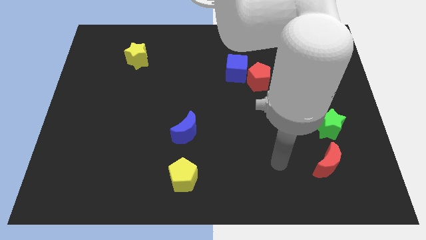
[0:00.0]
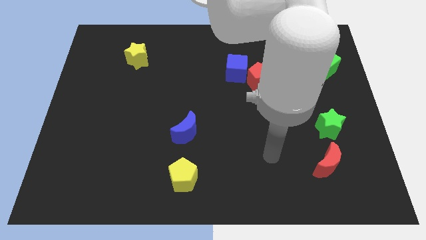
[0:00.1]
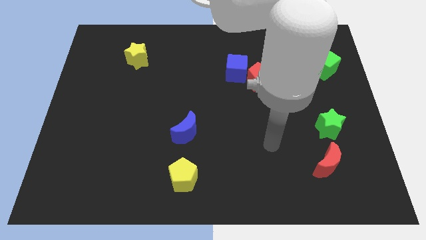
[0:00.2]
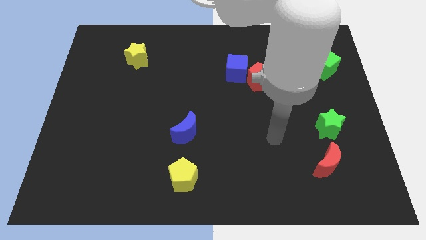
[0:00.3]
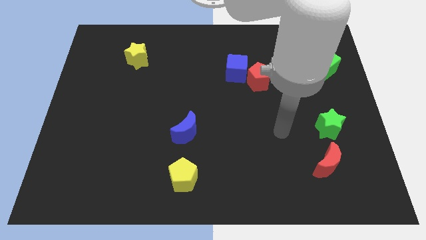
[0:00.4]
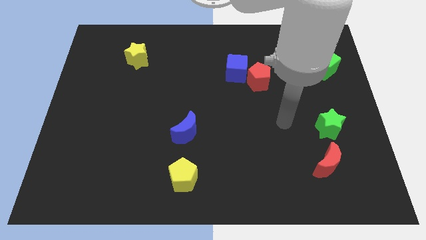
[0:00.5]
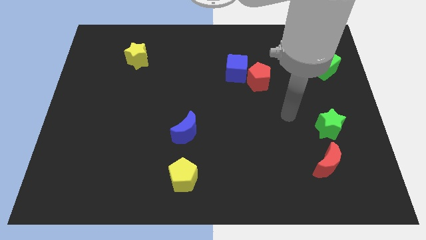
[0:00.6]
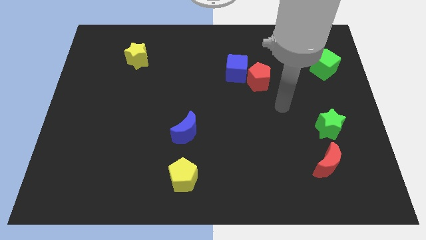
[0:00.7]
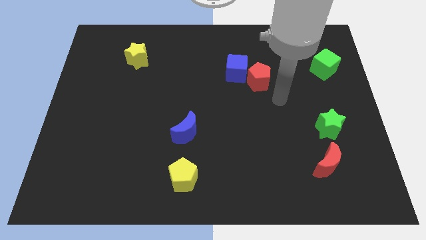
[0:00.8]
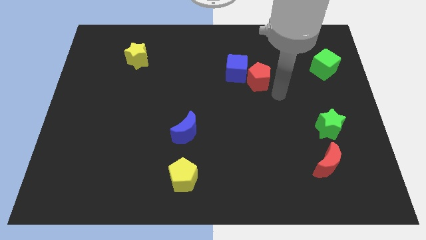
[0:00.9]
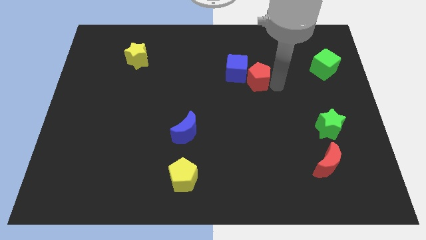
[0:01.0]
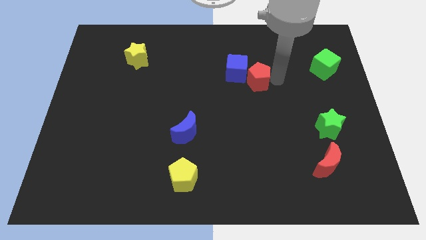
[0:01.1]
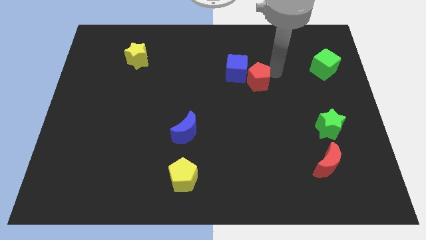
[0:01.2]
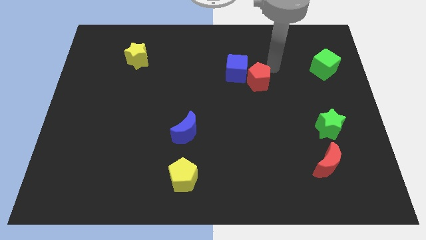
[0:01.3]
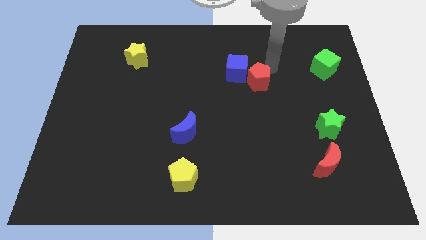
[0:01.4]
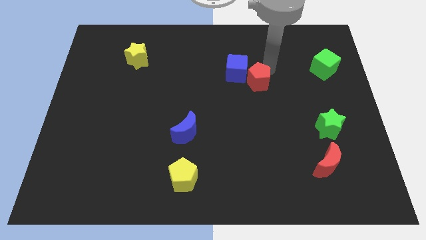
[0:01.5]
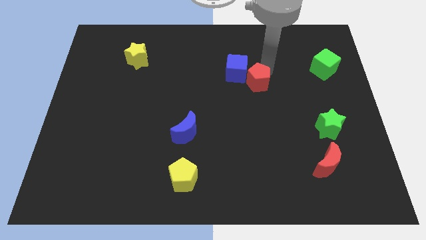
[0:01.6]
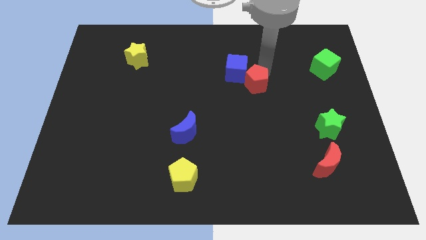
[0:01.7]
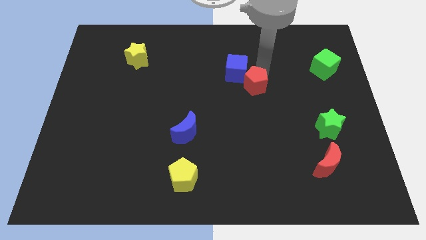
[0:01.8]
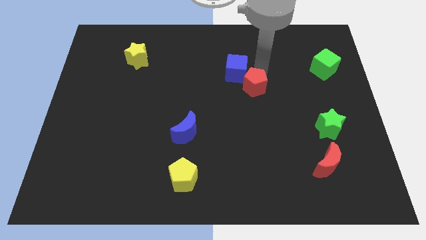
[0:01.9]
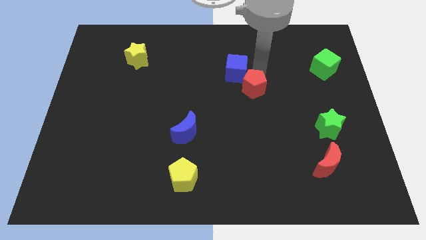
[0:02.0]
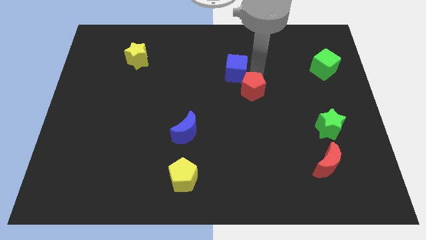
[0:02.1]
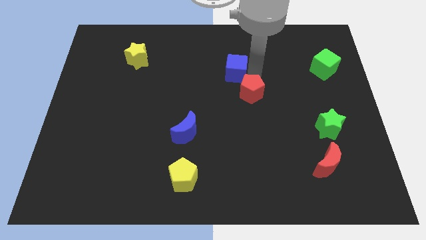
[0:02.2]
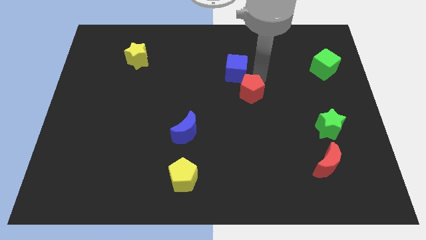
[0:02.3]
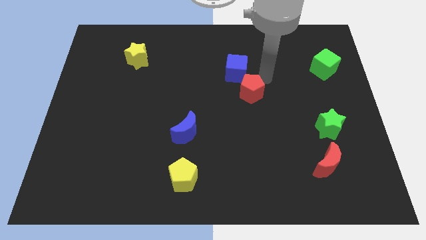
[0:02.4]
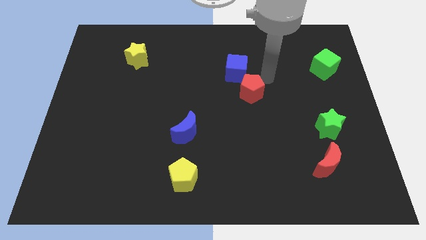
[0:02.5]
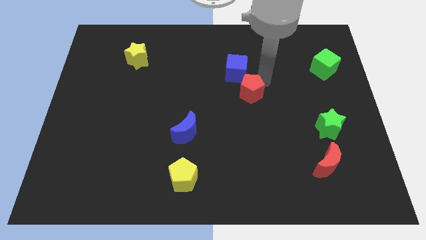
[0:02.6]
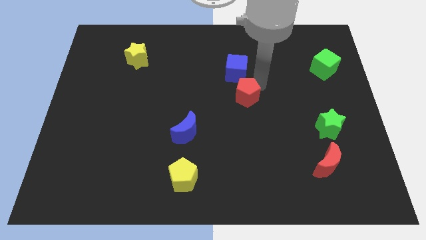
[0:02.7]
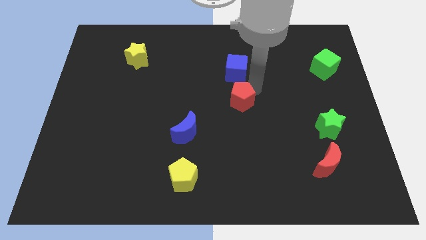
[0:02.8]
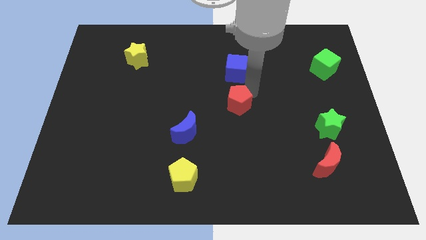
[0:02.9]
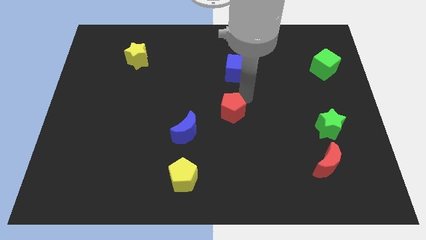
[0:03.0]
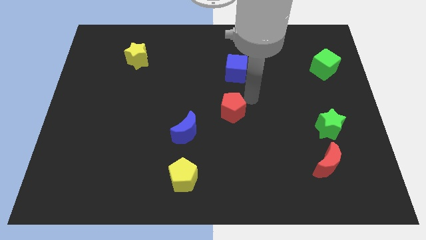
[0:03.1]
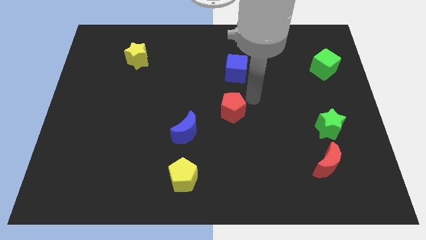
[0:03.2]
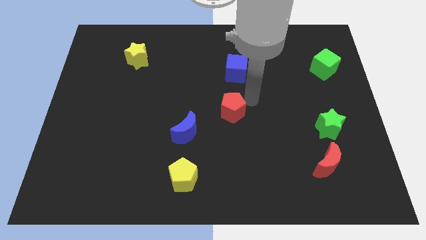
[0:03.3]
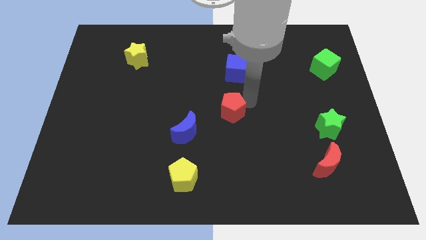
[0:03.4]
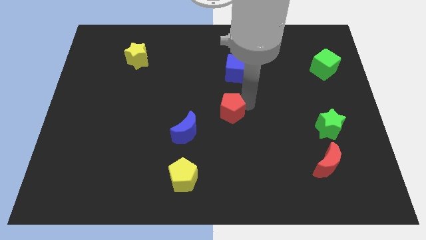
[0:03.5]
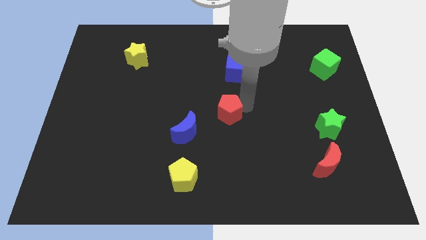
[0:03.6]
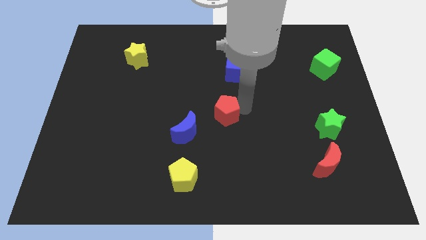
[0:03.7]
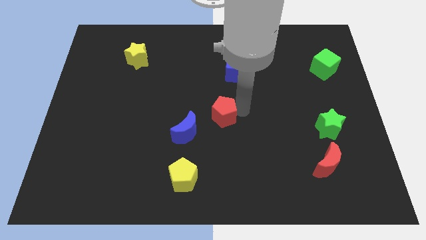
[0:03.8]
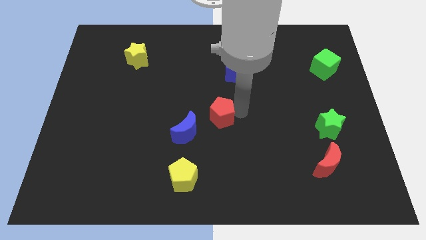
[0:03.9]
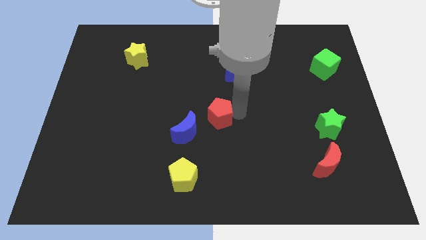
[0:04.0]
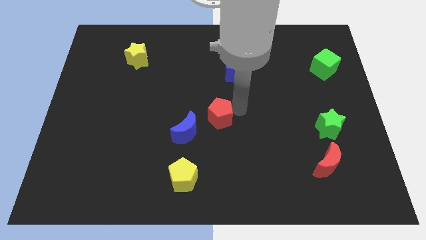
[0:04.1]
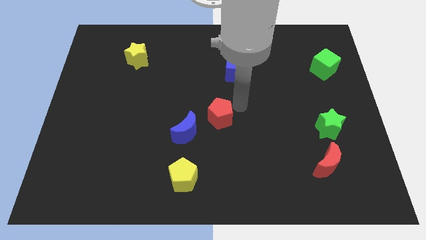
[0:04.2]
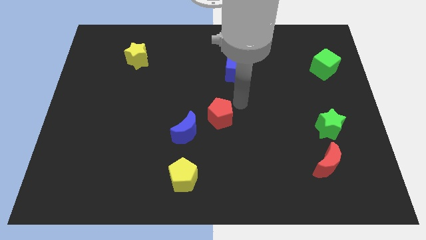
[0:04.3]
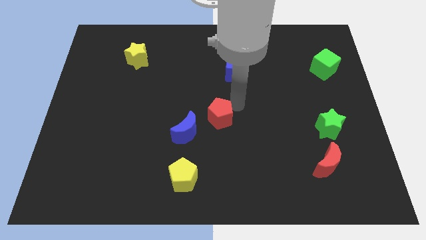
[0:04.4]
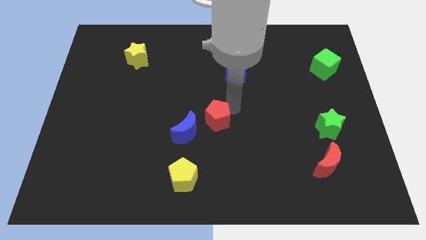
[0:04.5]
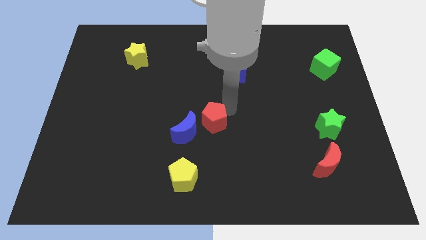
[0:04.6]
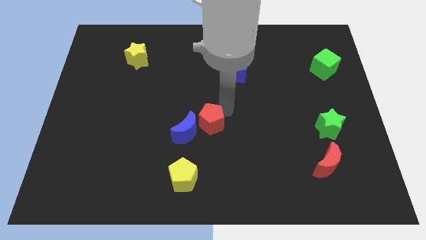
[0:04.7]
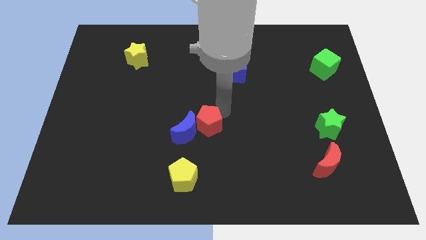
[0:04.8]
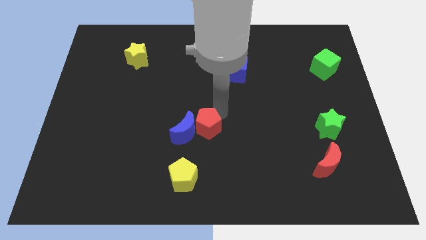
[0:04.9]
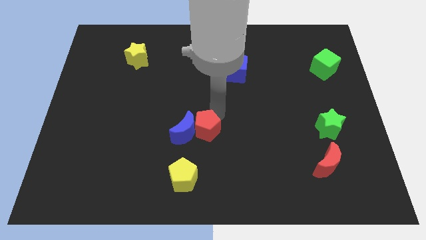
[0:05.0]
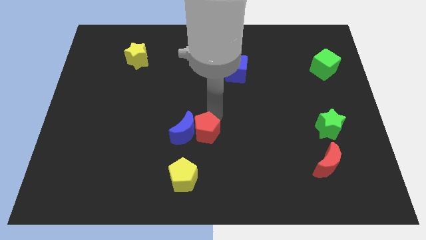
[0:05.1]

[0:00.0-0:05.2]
push the red pentagon diagonally downwards and to the left

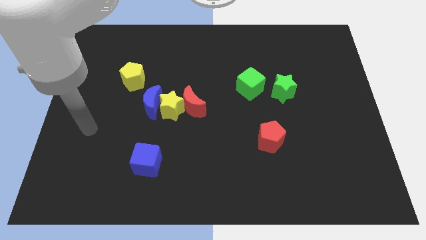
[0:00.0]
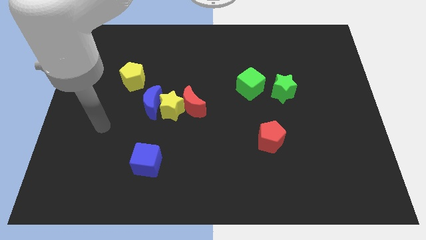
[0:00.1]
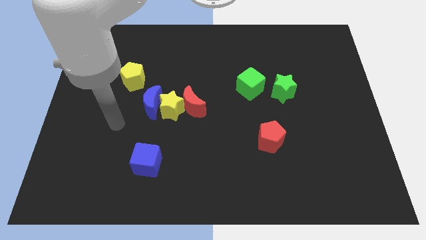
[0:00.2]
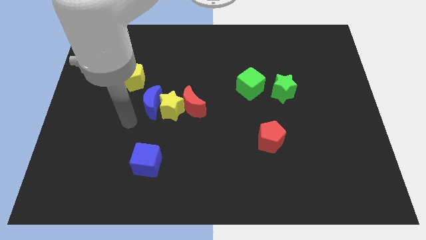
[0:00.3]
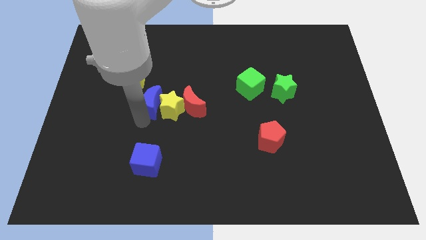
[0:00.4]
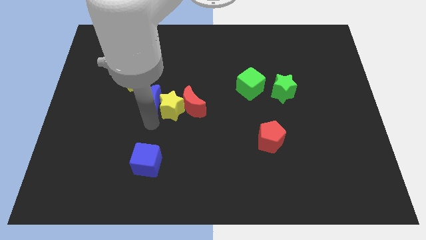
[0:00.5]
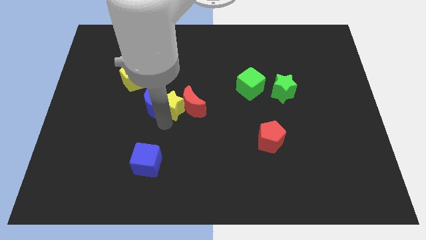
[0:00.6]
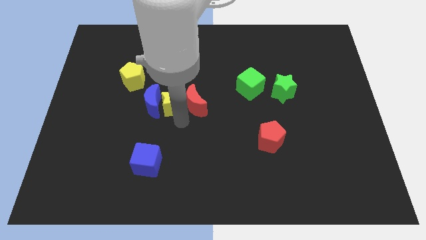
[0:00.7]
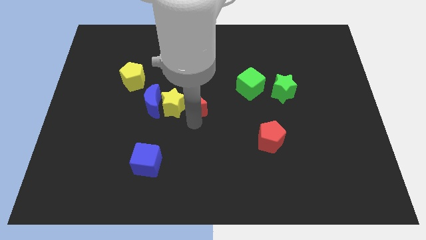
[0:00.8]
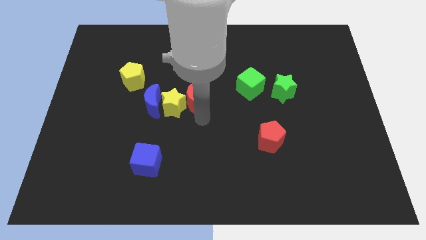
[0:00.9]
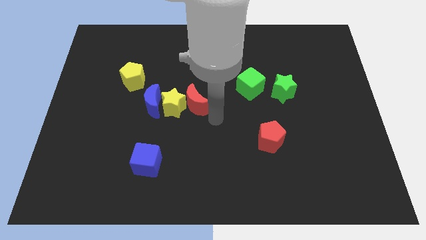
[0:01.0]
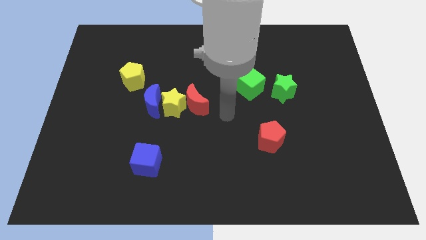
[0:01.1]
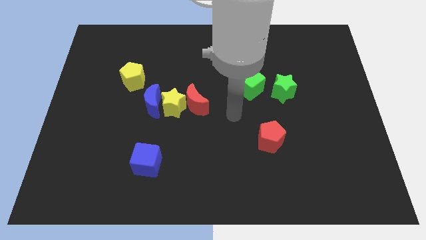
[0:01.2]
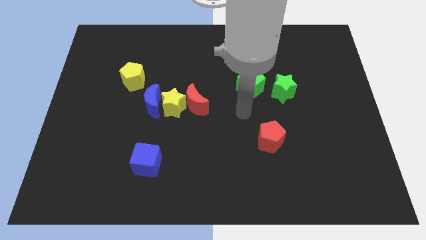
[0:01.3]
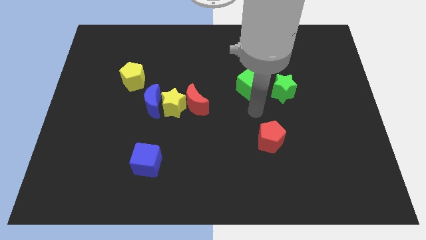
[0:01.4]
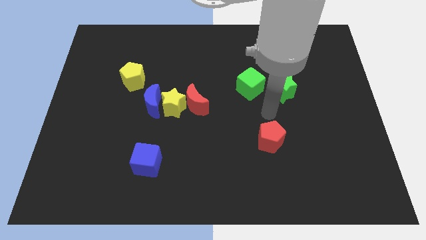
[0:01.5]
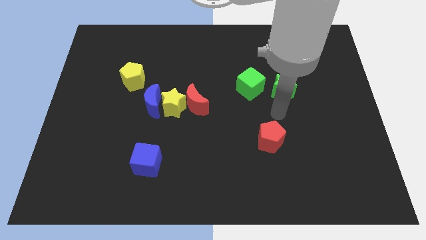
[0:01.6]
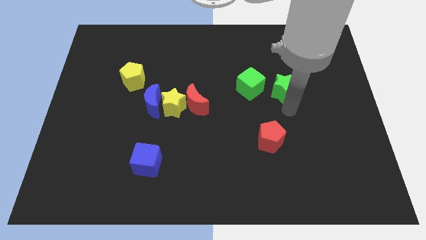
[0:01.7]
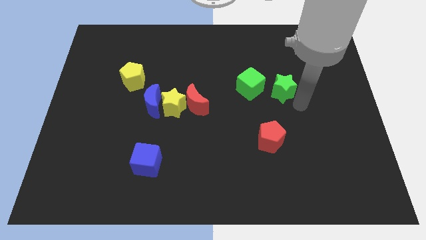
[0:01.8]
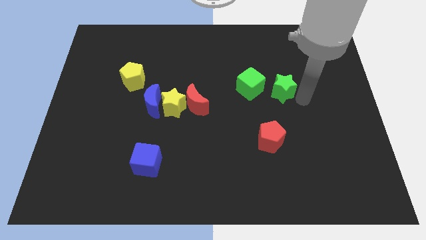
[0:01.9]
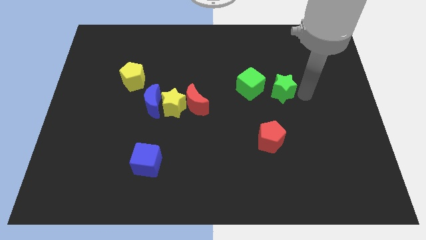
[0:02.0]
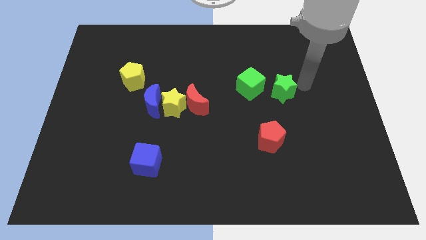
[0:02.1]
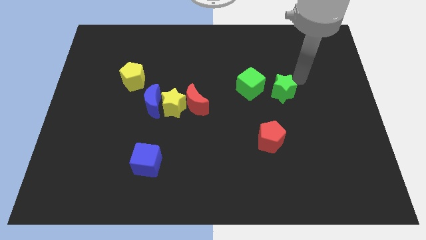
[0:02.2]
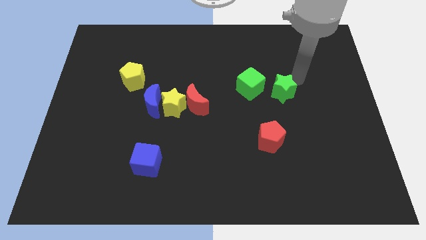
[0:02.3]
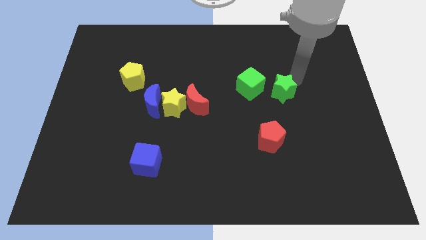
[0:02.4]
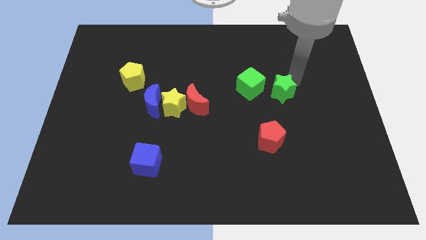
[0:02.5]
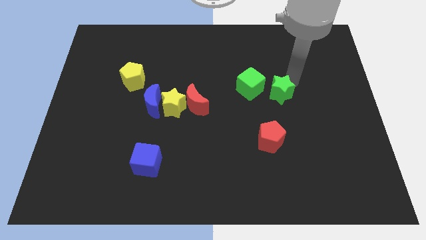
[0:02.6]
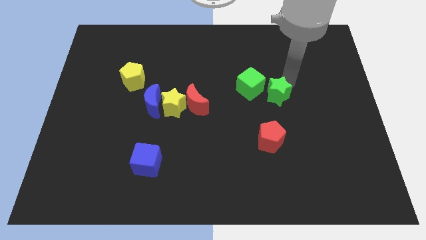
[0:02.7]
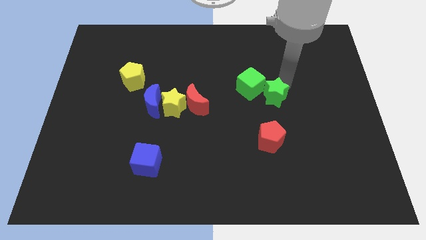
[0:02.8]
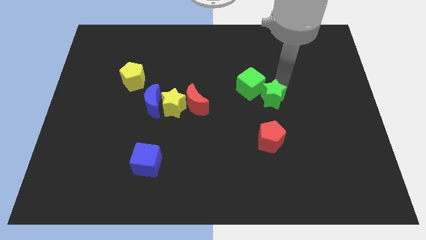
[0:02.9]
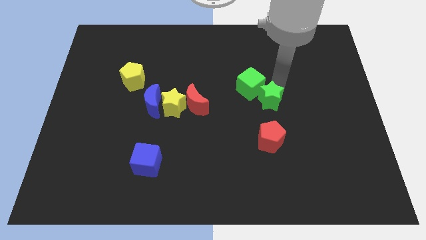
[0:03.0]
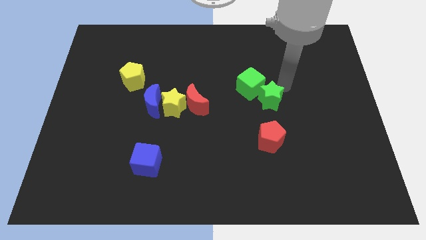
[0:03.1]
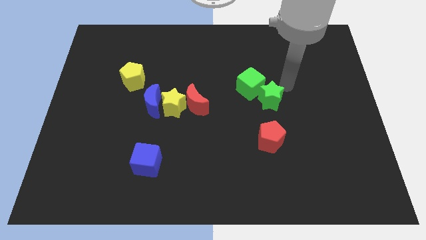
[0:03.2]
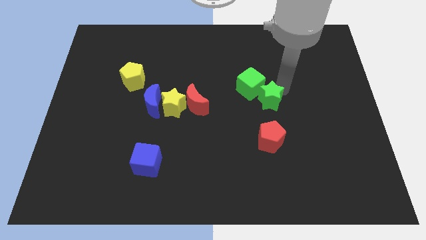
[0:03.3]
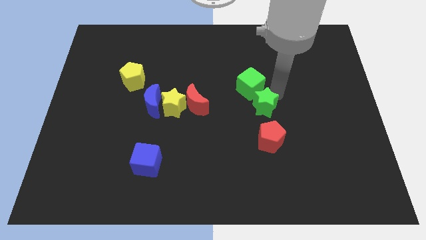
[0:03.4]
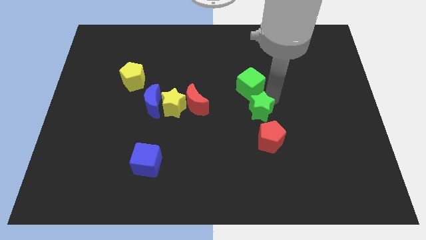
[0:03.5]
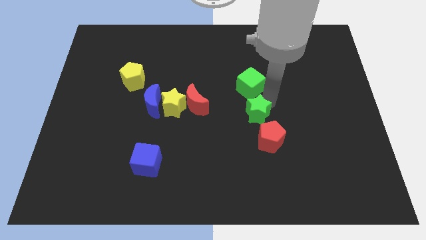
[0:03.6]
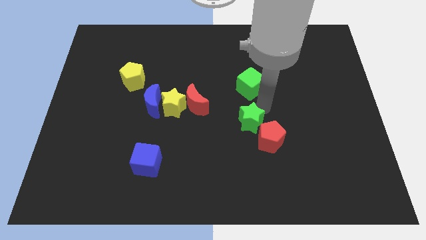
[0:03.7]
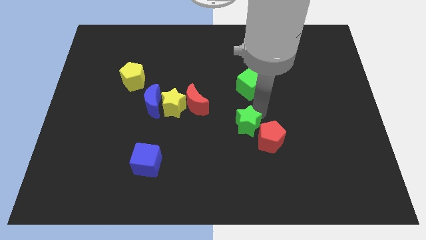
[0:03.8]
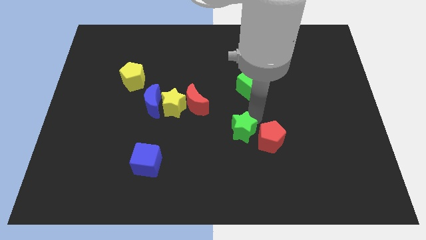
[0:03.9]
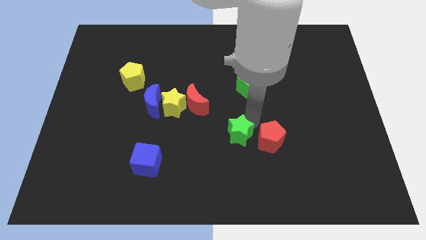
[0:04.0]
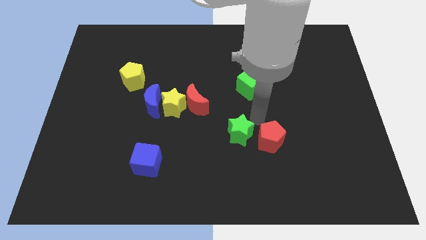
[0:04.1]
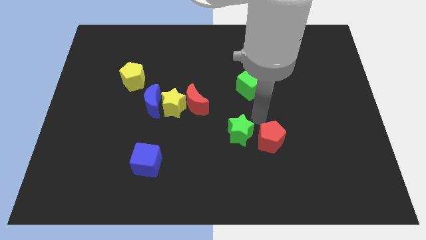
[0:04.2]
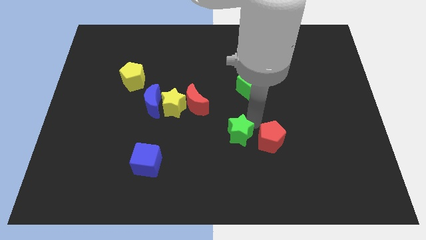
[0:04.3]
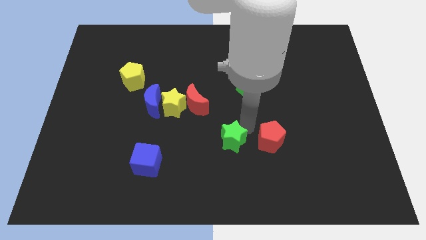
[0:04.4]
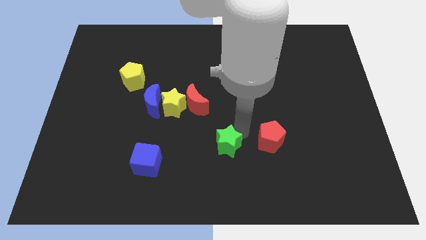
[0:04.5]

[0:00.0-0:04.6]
move the green star downwards and to the left
